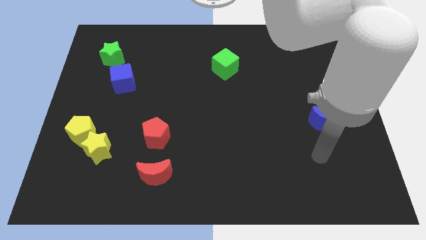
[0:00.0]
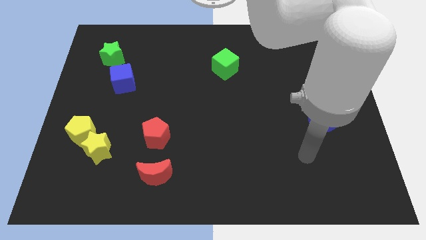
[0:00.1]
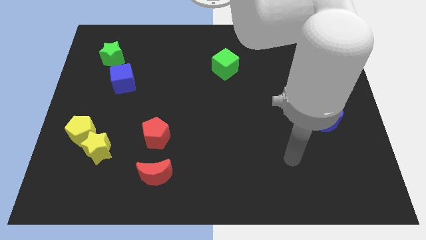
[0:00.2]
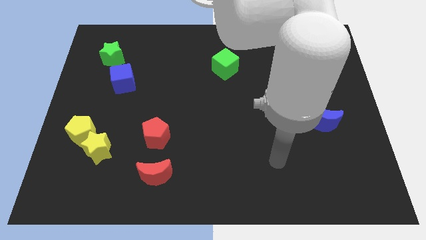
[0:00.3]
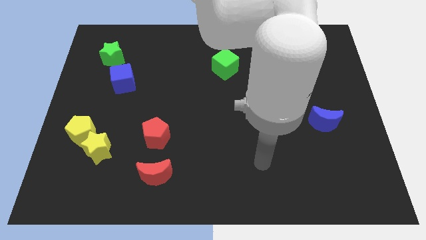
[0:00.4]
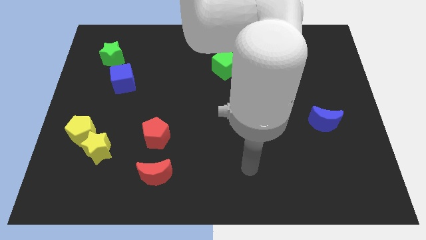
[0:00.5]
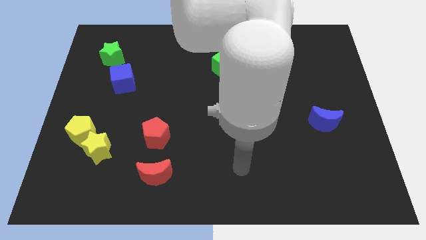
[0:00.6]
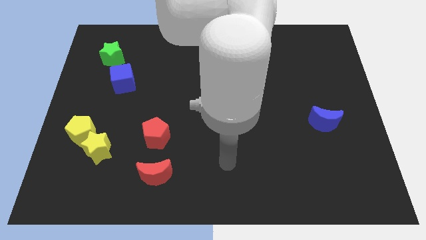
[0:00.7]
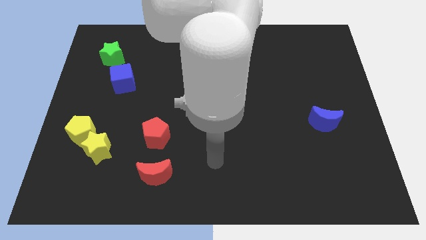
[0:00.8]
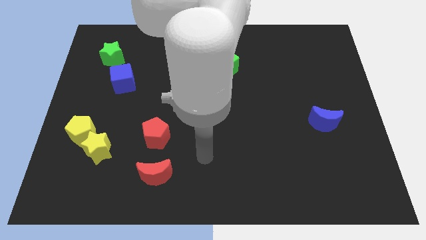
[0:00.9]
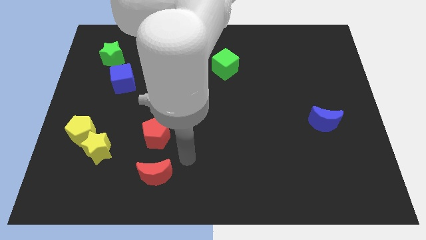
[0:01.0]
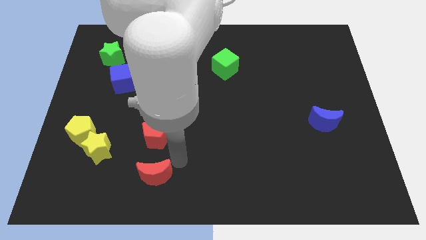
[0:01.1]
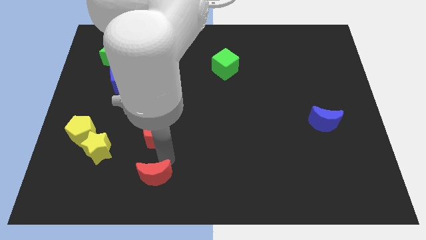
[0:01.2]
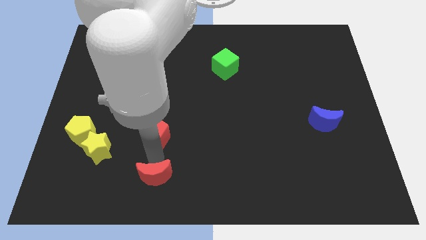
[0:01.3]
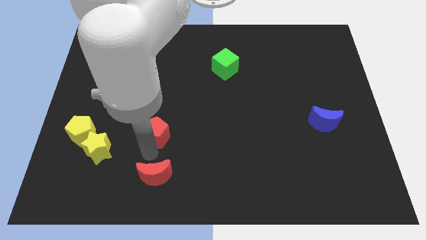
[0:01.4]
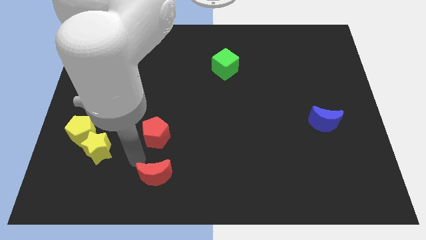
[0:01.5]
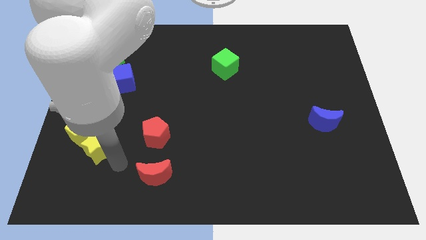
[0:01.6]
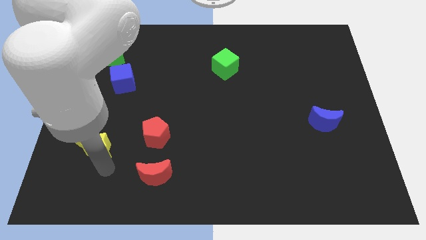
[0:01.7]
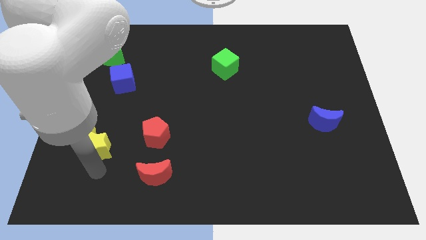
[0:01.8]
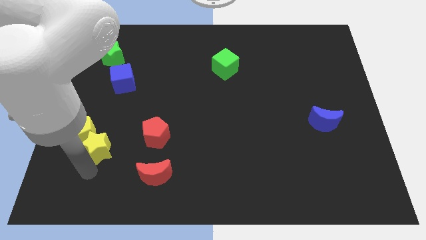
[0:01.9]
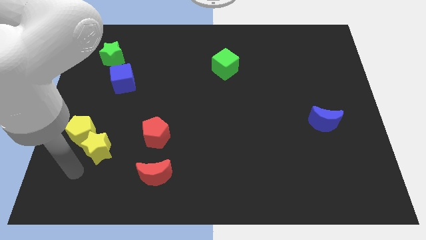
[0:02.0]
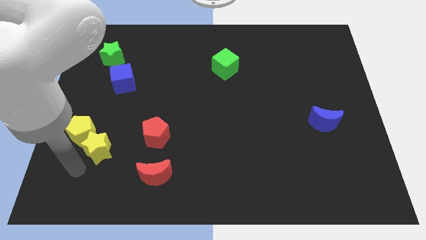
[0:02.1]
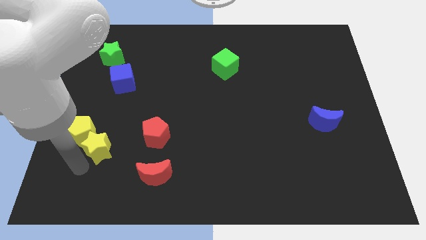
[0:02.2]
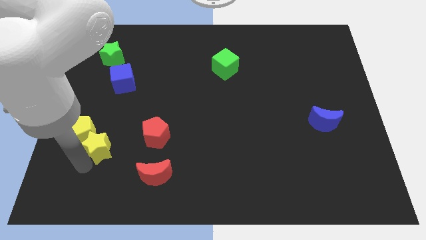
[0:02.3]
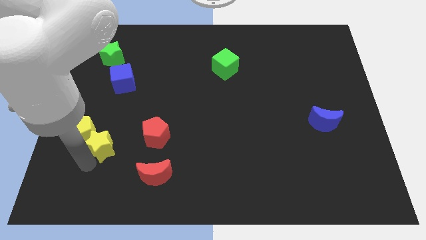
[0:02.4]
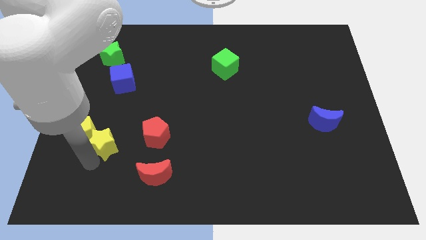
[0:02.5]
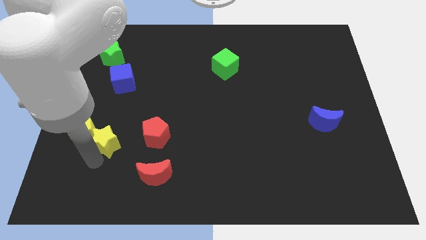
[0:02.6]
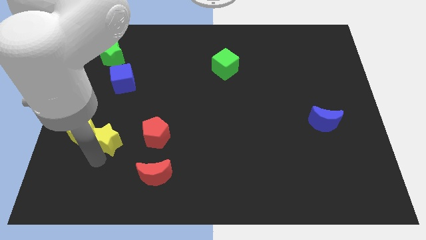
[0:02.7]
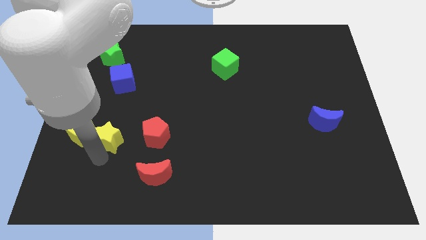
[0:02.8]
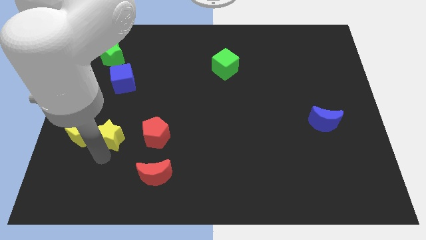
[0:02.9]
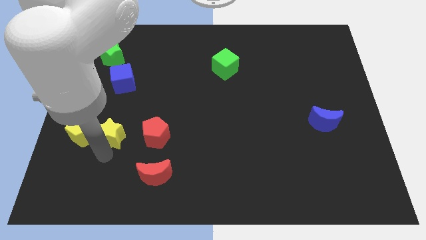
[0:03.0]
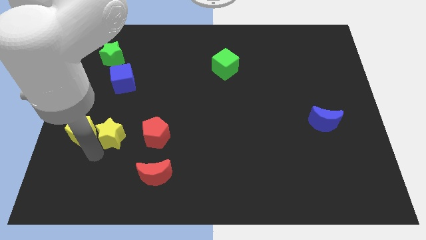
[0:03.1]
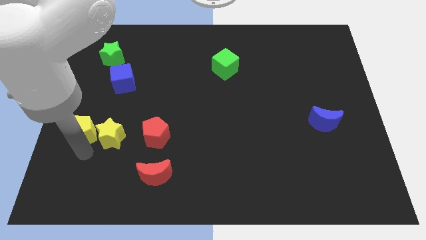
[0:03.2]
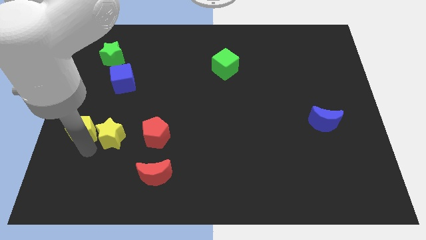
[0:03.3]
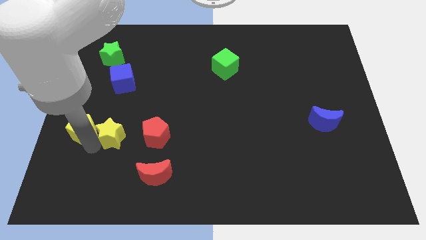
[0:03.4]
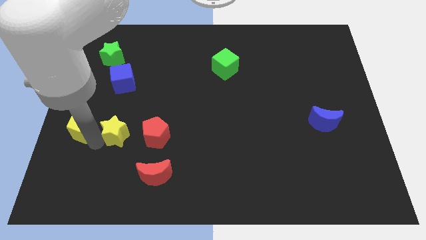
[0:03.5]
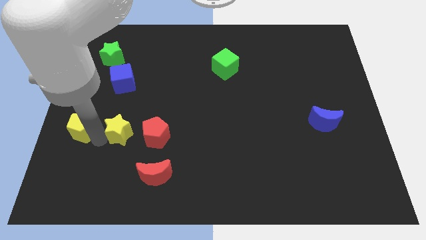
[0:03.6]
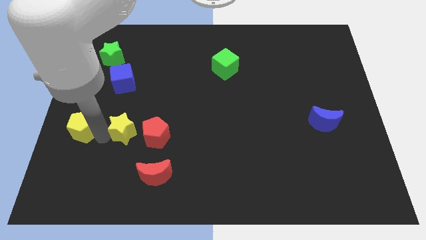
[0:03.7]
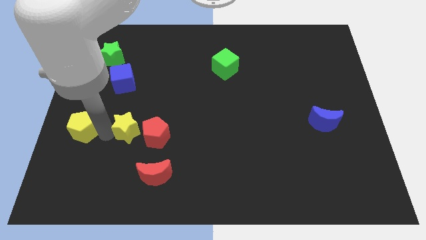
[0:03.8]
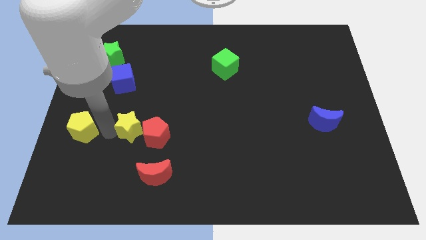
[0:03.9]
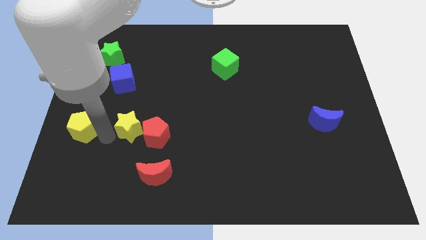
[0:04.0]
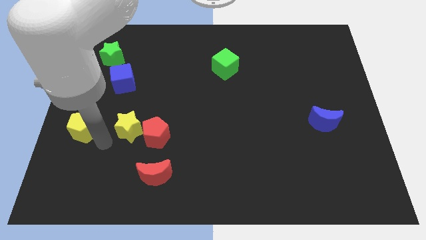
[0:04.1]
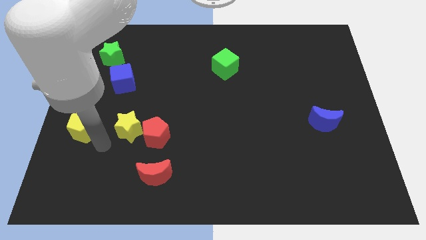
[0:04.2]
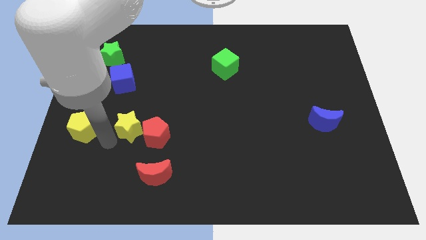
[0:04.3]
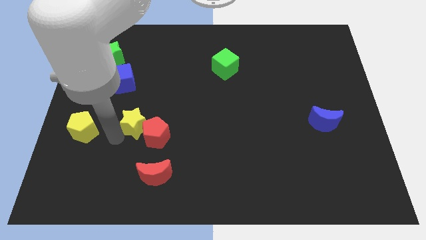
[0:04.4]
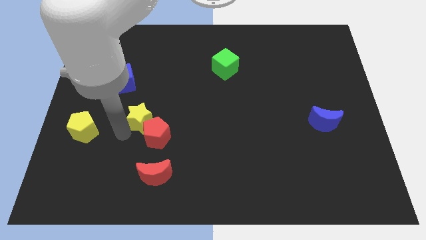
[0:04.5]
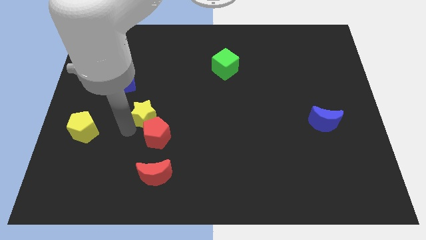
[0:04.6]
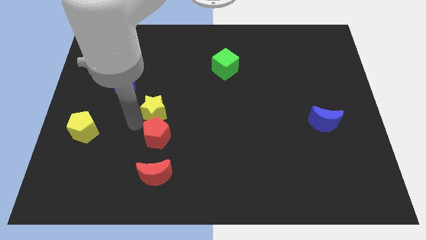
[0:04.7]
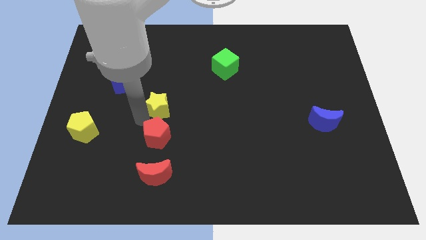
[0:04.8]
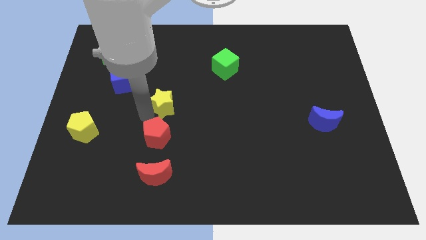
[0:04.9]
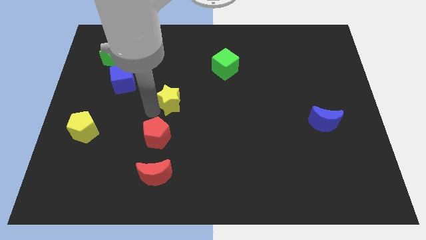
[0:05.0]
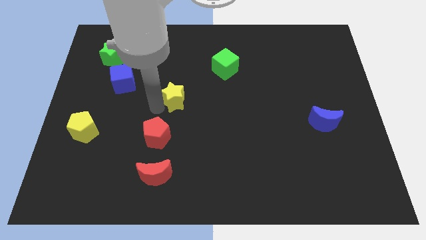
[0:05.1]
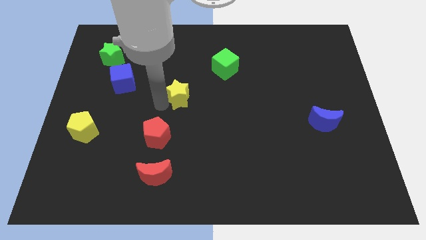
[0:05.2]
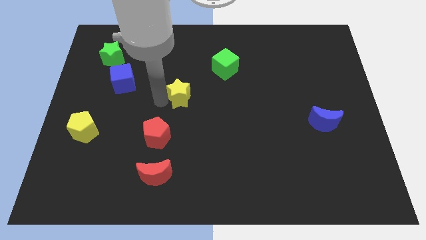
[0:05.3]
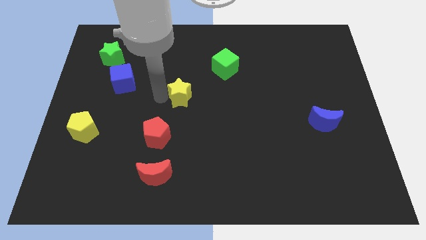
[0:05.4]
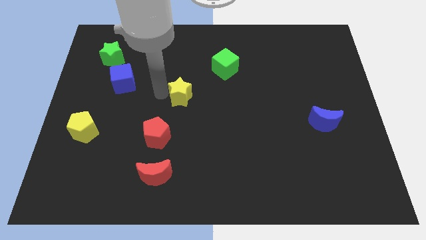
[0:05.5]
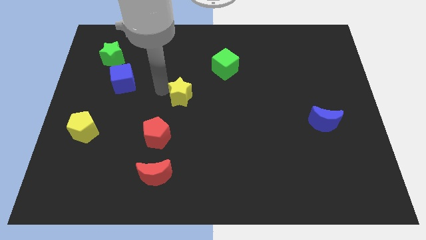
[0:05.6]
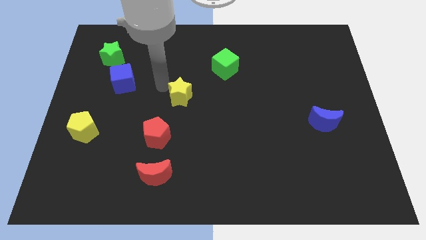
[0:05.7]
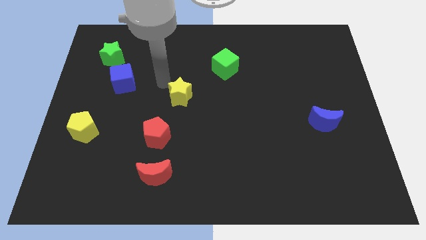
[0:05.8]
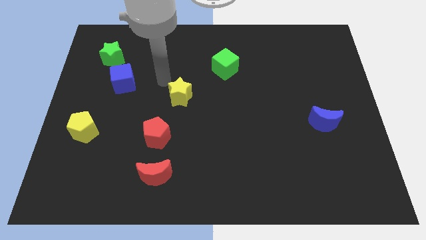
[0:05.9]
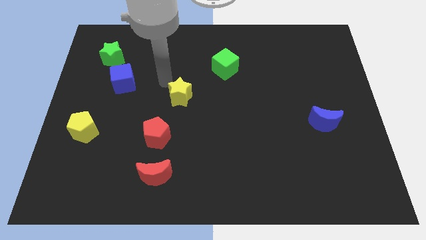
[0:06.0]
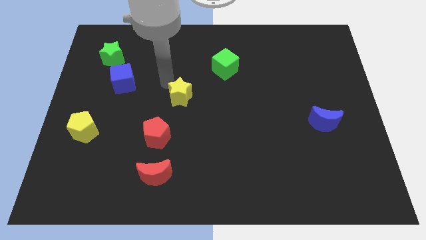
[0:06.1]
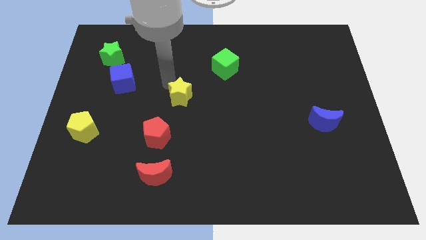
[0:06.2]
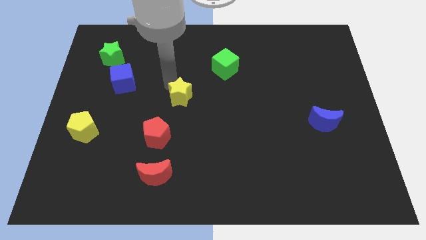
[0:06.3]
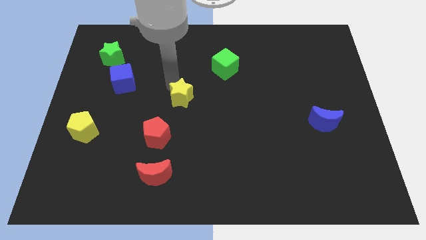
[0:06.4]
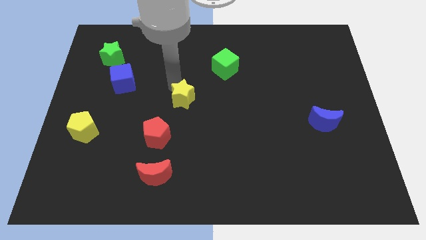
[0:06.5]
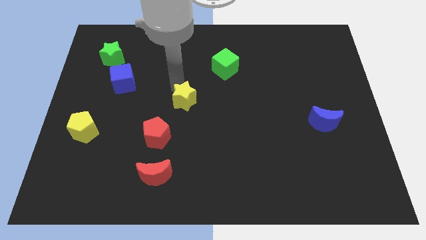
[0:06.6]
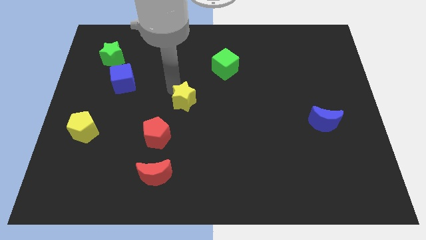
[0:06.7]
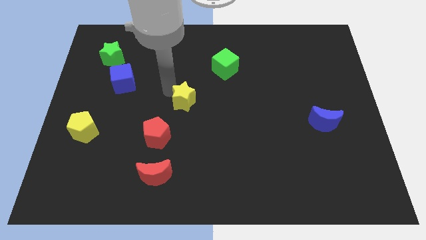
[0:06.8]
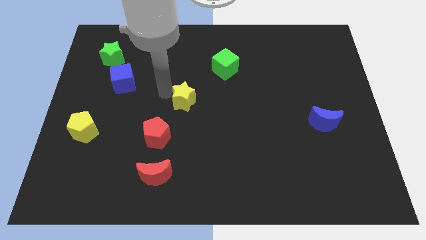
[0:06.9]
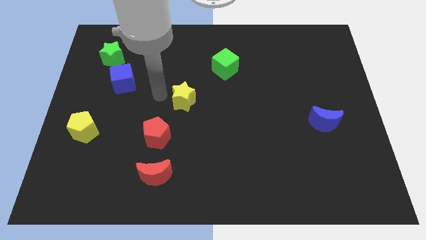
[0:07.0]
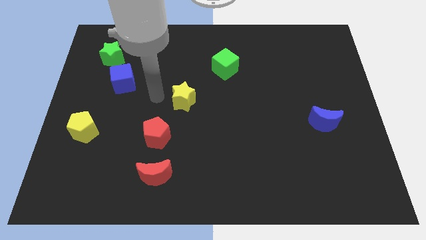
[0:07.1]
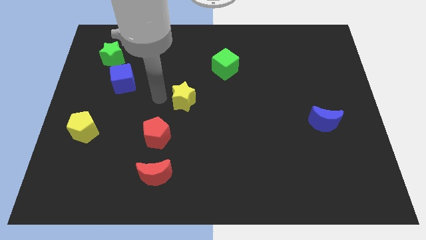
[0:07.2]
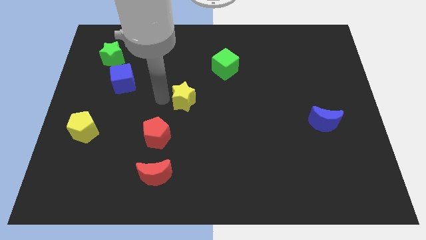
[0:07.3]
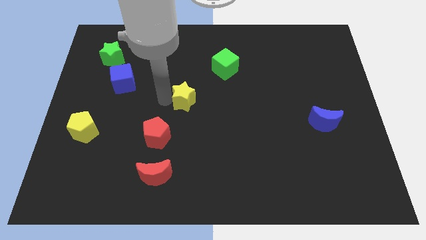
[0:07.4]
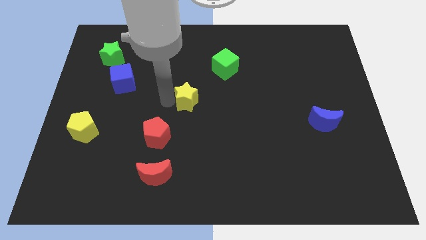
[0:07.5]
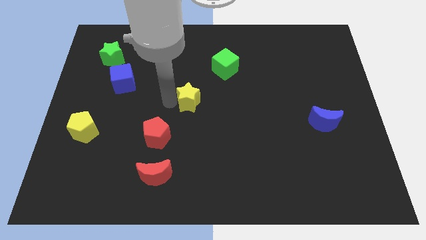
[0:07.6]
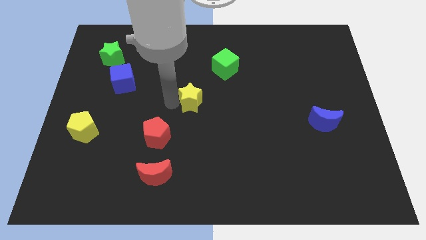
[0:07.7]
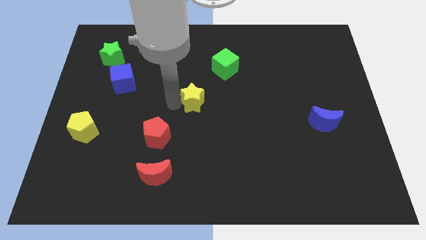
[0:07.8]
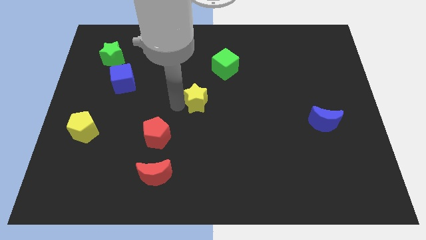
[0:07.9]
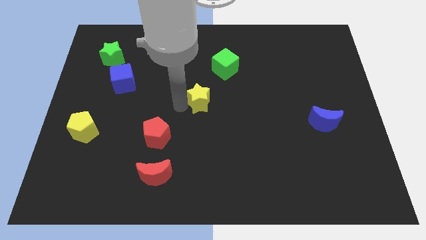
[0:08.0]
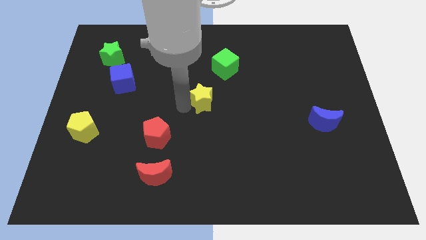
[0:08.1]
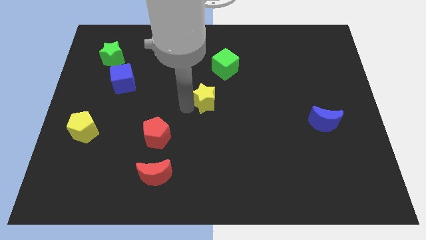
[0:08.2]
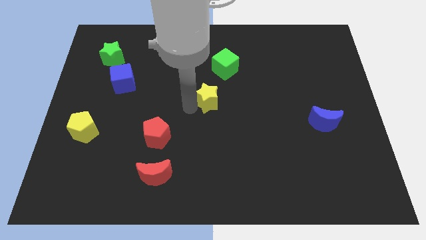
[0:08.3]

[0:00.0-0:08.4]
move the yellow star to the bottom of the green cube
